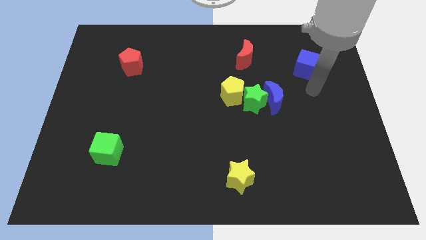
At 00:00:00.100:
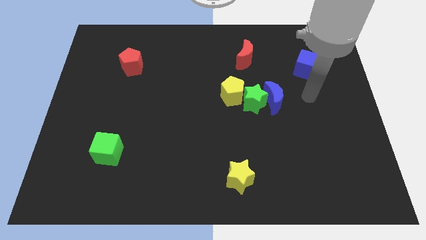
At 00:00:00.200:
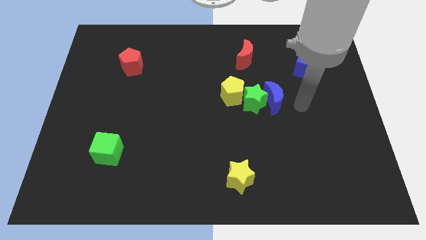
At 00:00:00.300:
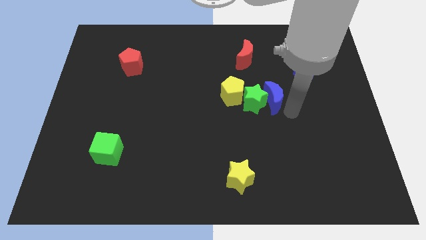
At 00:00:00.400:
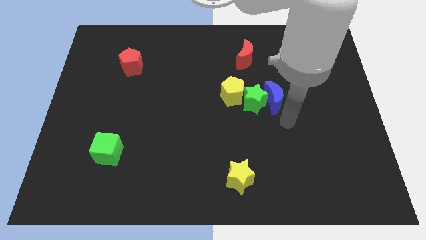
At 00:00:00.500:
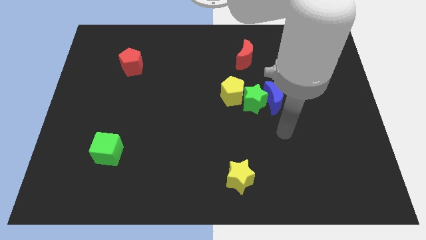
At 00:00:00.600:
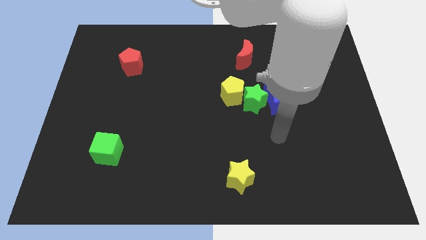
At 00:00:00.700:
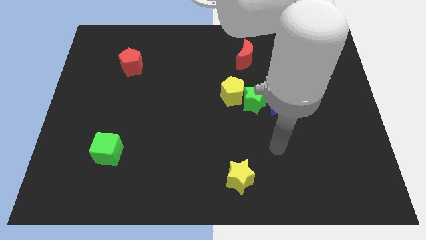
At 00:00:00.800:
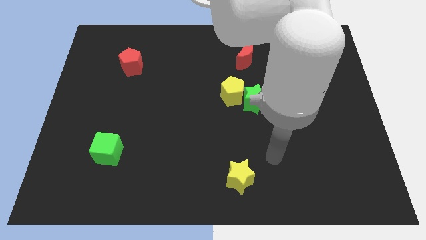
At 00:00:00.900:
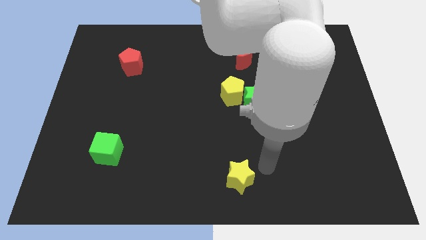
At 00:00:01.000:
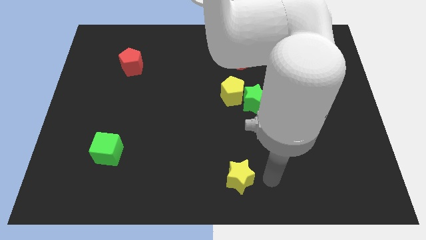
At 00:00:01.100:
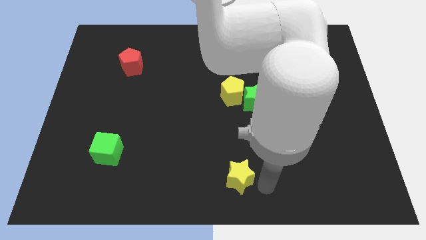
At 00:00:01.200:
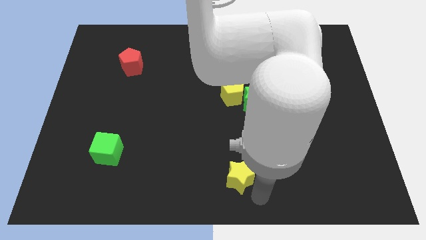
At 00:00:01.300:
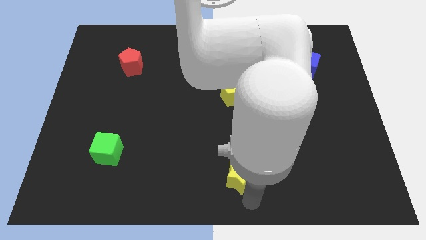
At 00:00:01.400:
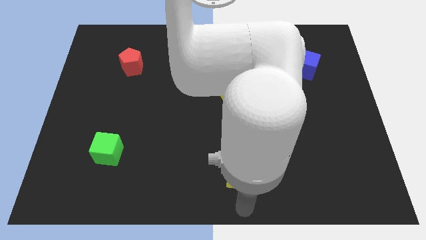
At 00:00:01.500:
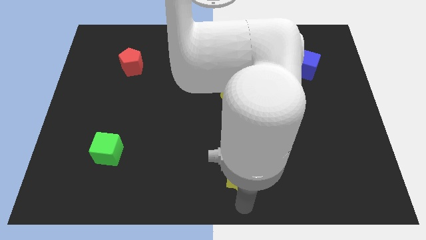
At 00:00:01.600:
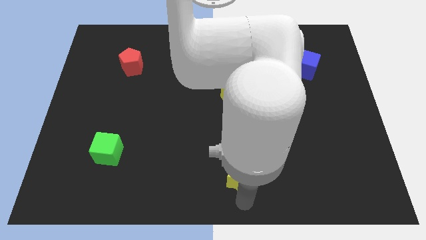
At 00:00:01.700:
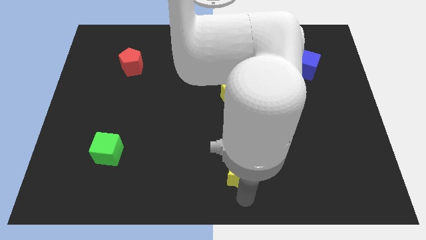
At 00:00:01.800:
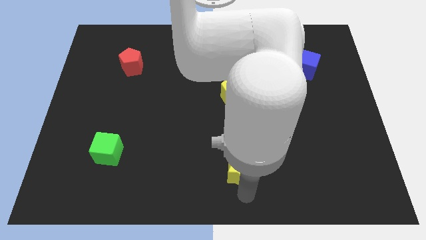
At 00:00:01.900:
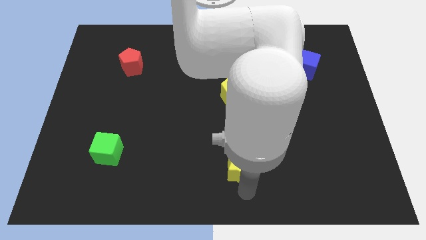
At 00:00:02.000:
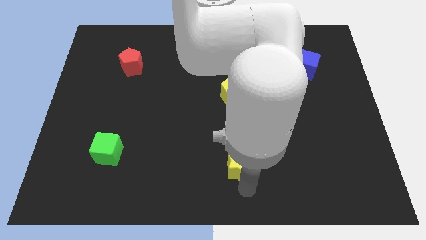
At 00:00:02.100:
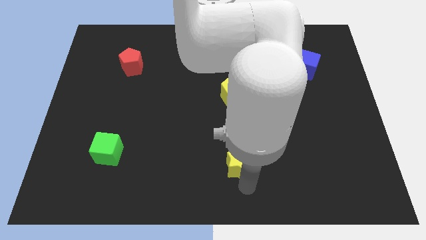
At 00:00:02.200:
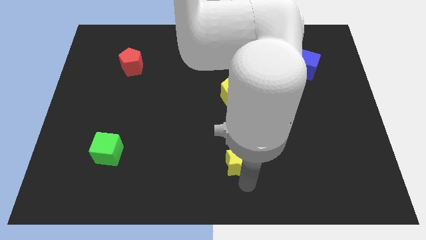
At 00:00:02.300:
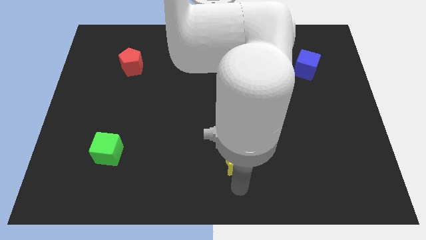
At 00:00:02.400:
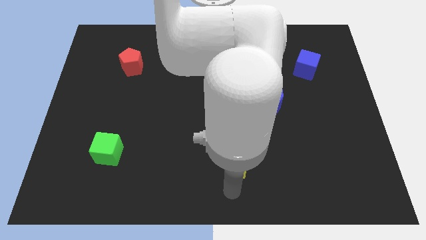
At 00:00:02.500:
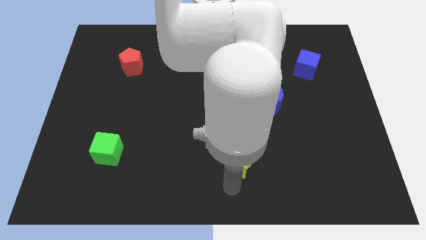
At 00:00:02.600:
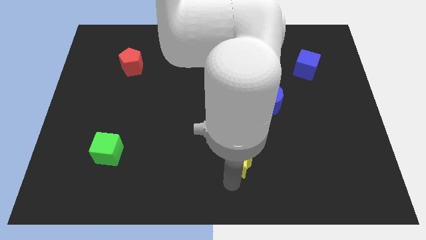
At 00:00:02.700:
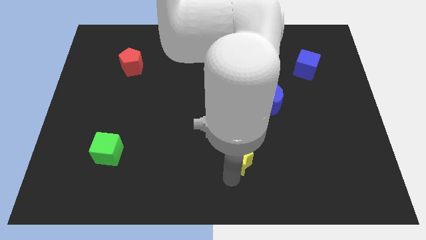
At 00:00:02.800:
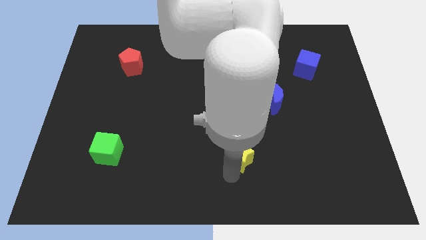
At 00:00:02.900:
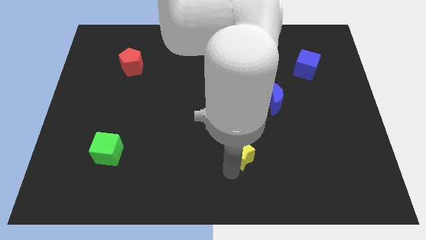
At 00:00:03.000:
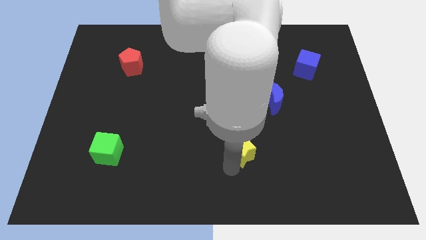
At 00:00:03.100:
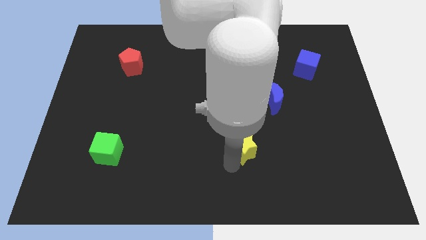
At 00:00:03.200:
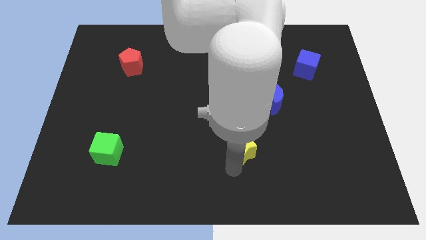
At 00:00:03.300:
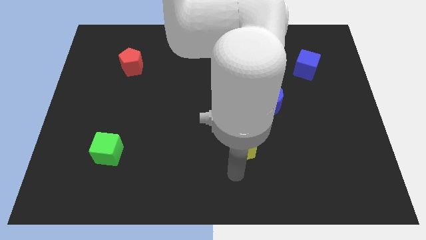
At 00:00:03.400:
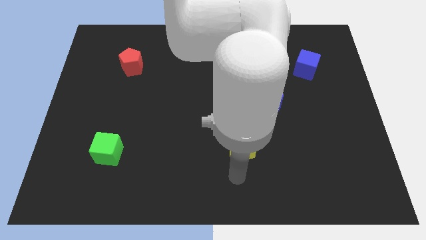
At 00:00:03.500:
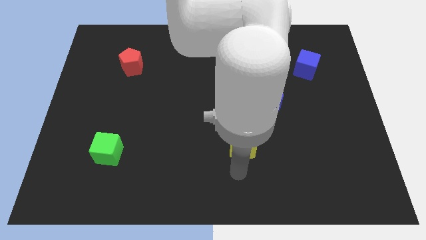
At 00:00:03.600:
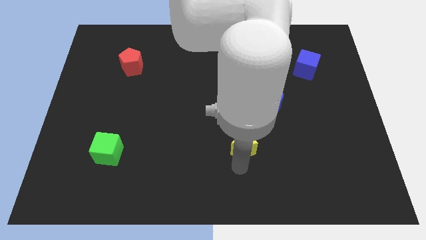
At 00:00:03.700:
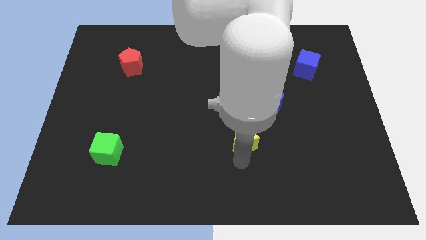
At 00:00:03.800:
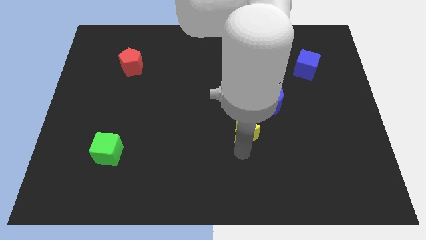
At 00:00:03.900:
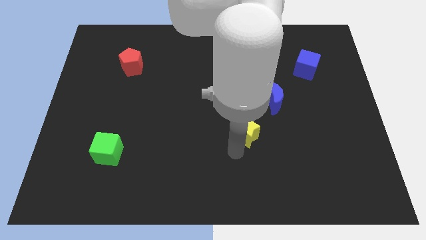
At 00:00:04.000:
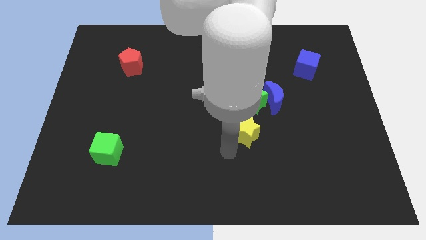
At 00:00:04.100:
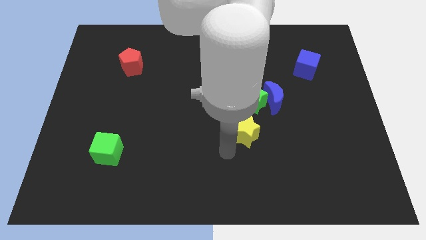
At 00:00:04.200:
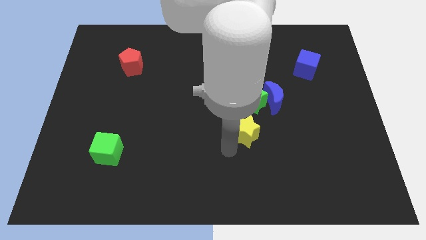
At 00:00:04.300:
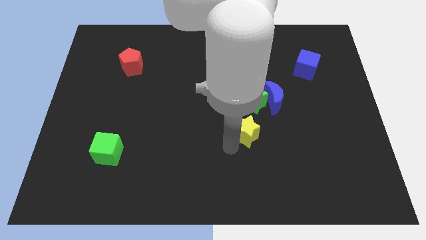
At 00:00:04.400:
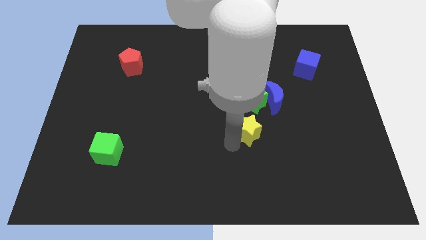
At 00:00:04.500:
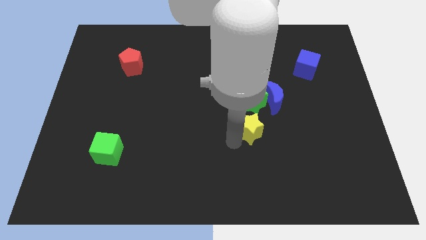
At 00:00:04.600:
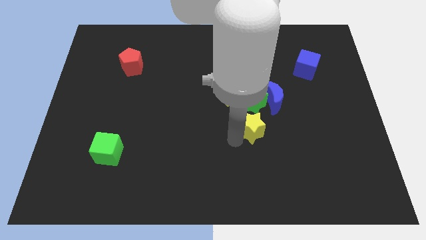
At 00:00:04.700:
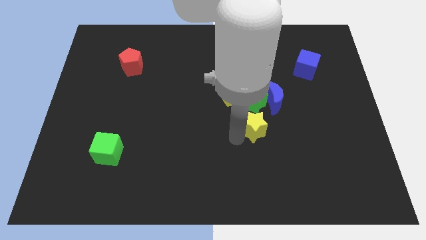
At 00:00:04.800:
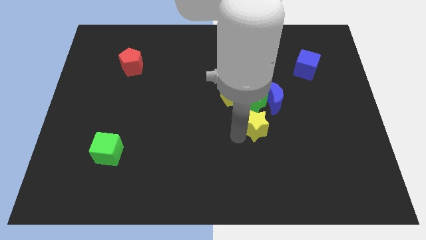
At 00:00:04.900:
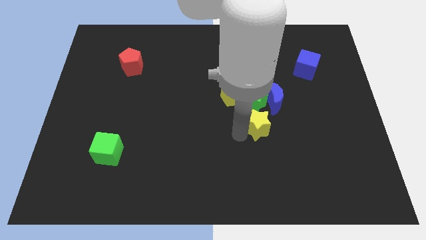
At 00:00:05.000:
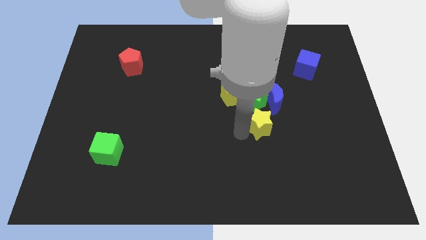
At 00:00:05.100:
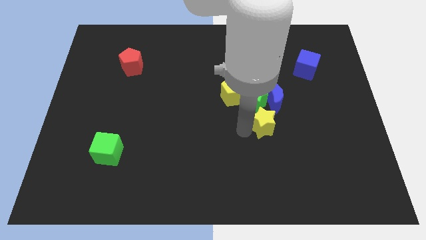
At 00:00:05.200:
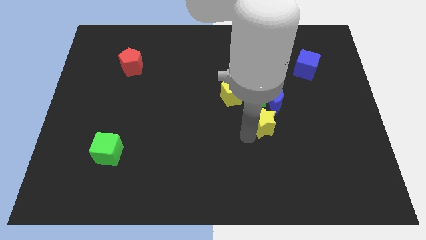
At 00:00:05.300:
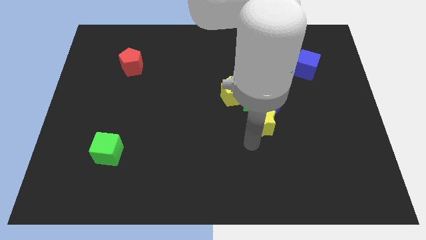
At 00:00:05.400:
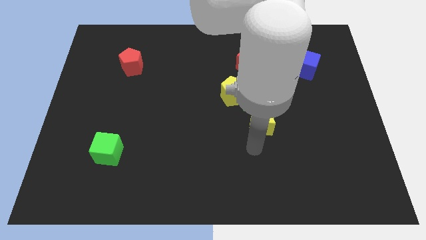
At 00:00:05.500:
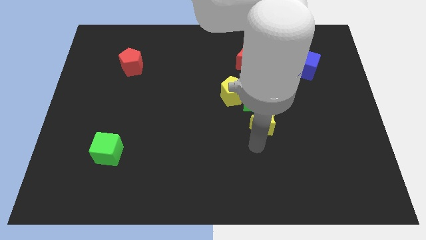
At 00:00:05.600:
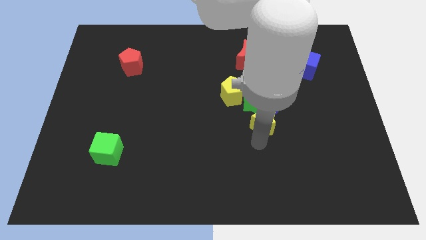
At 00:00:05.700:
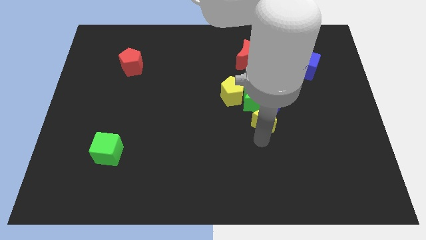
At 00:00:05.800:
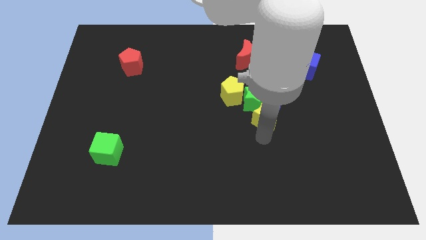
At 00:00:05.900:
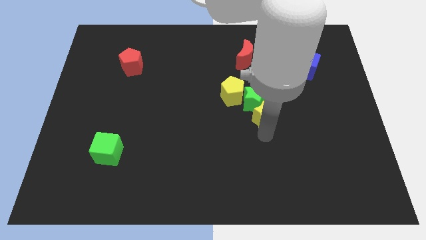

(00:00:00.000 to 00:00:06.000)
move the yellow star towards the blue moon
